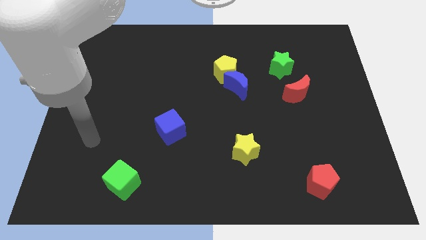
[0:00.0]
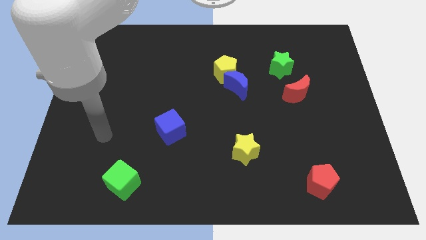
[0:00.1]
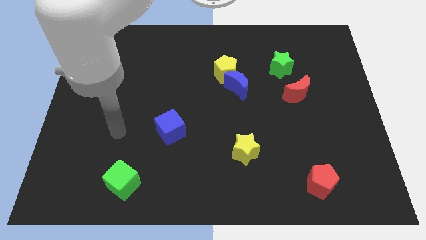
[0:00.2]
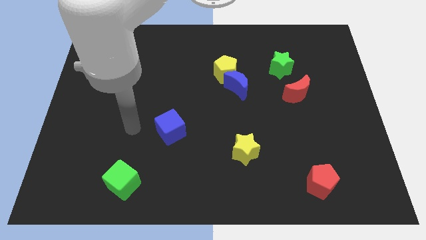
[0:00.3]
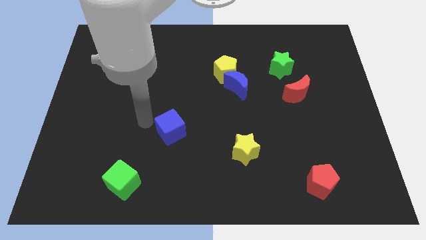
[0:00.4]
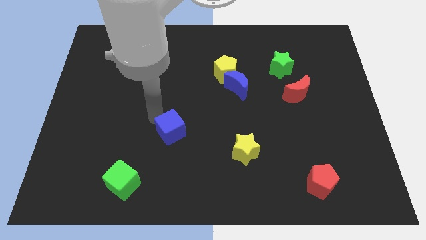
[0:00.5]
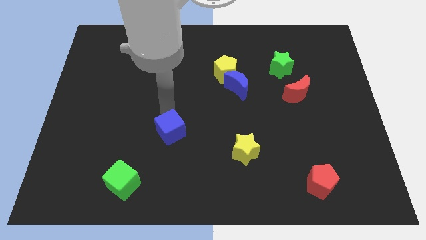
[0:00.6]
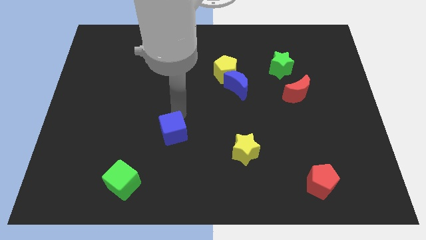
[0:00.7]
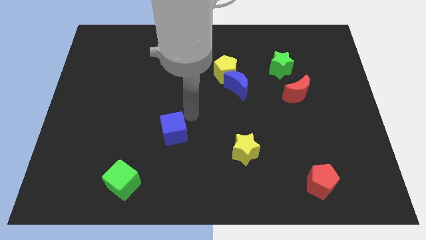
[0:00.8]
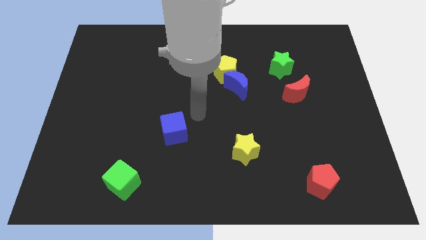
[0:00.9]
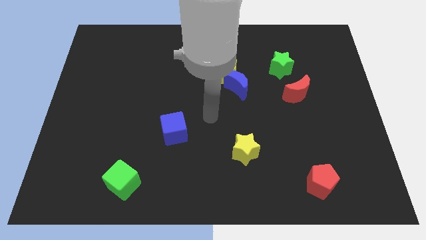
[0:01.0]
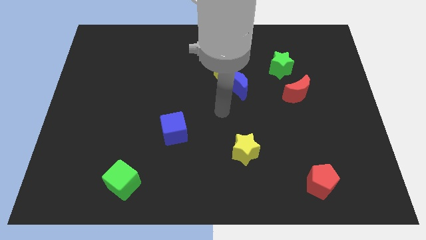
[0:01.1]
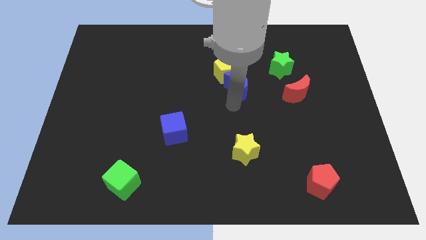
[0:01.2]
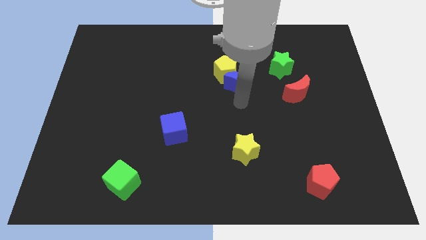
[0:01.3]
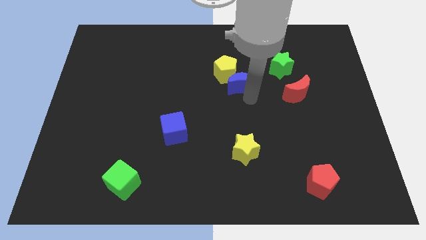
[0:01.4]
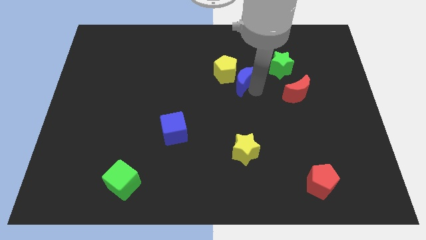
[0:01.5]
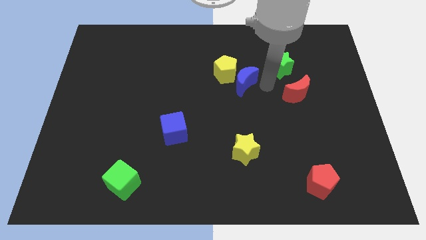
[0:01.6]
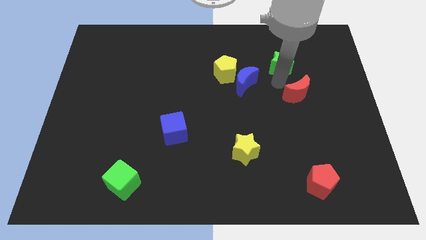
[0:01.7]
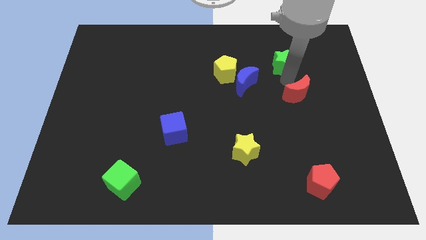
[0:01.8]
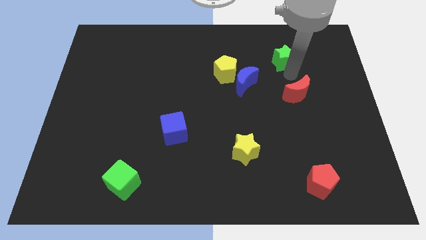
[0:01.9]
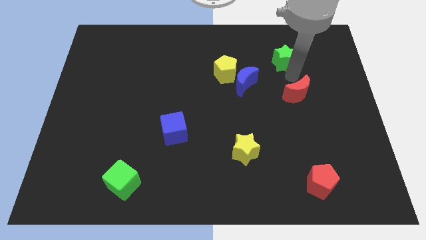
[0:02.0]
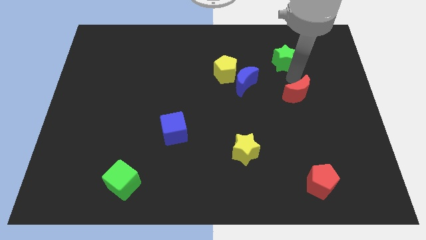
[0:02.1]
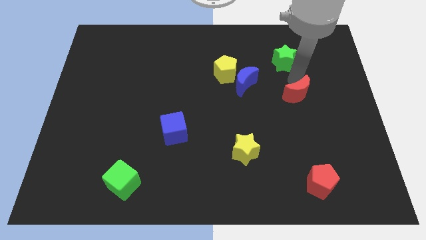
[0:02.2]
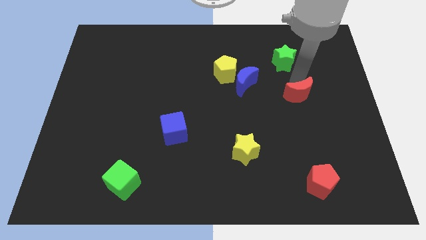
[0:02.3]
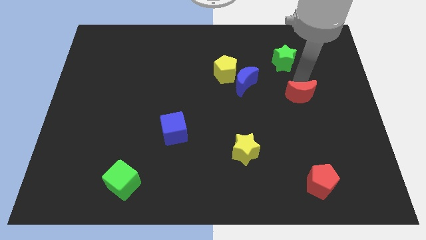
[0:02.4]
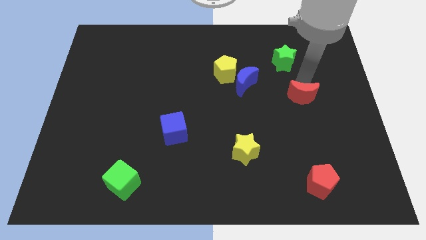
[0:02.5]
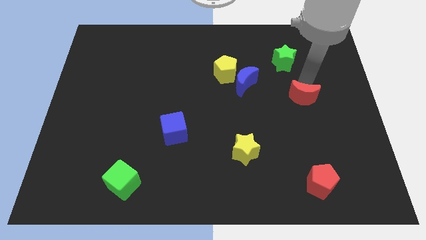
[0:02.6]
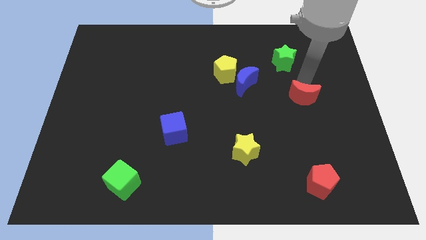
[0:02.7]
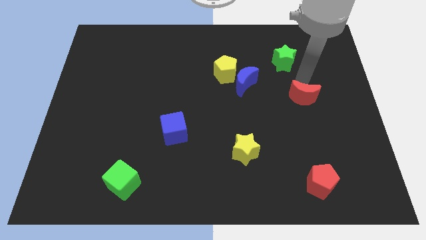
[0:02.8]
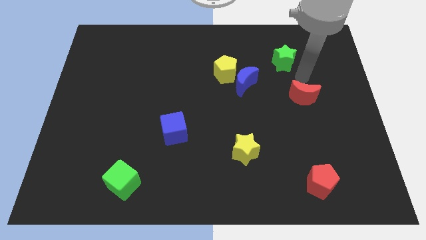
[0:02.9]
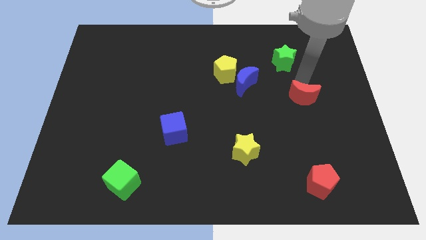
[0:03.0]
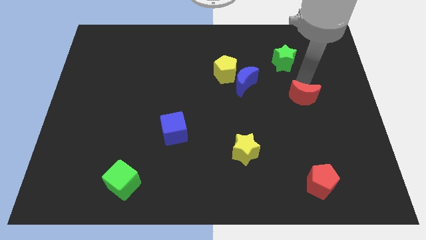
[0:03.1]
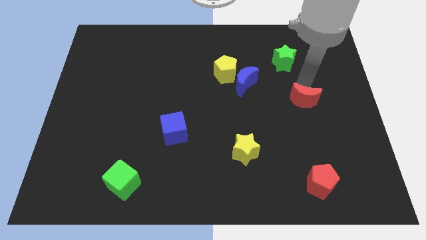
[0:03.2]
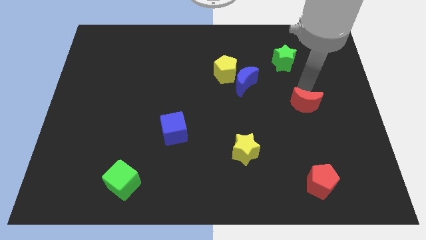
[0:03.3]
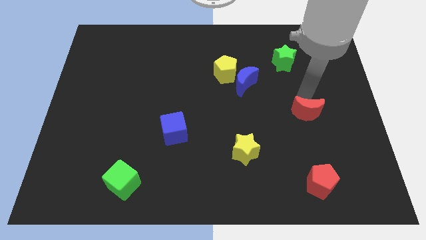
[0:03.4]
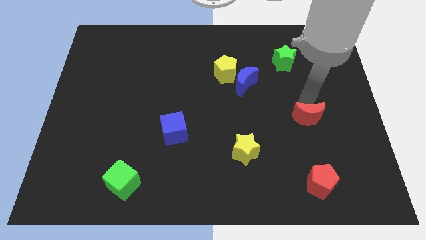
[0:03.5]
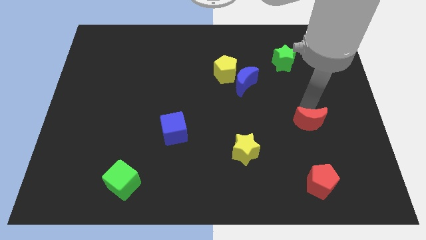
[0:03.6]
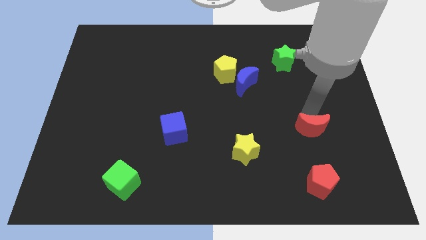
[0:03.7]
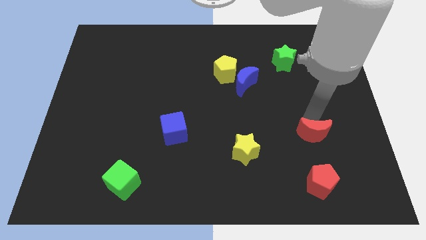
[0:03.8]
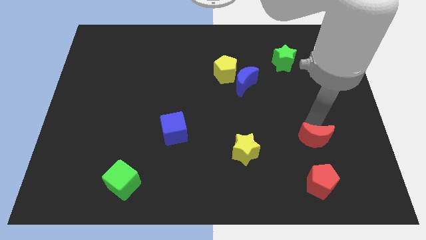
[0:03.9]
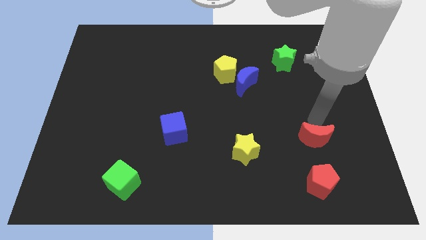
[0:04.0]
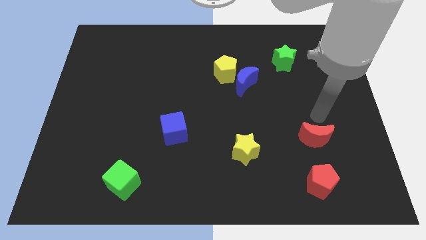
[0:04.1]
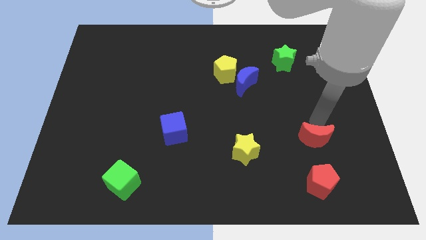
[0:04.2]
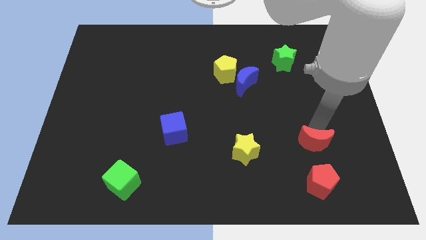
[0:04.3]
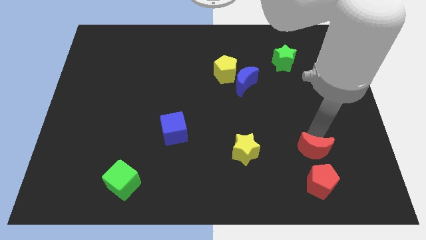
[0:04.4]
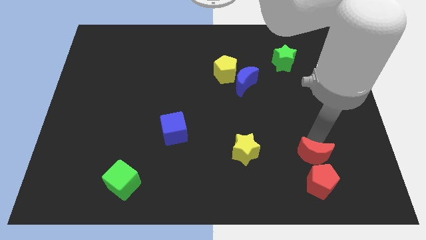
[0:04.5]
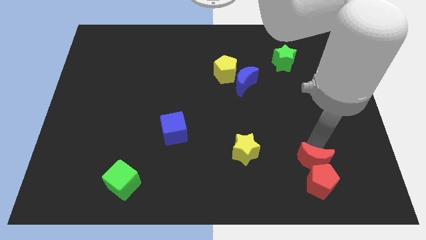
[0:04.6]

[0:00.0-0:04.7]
slide the red moon close to the red pentagon

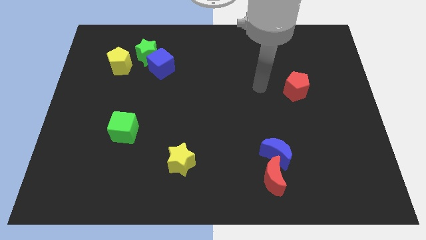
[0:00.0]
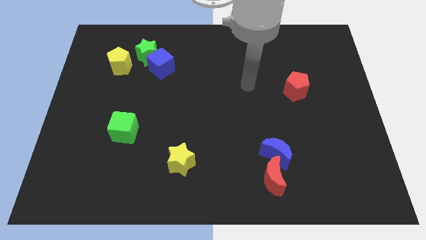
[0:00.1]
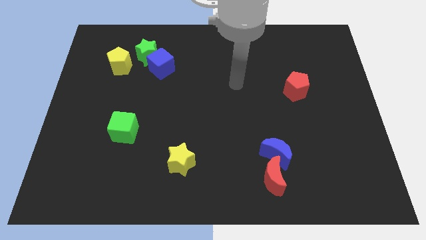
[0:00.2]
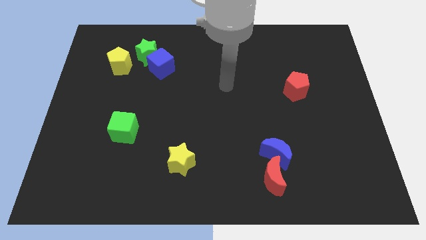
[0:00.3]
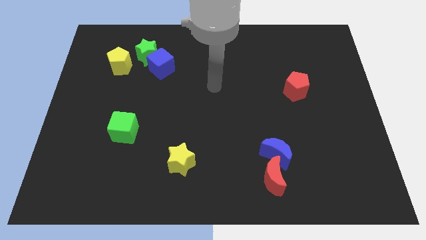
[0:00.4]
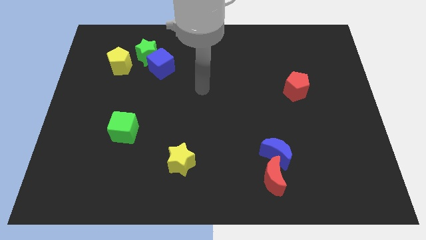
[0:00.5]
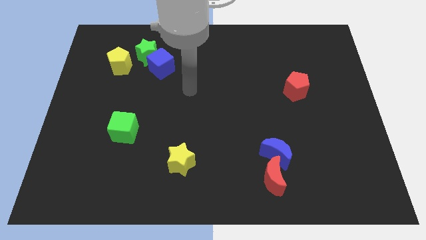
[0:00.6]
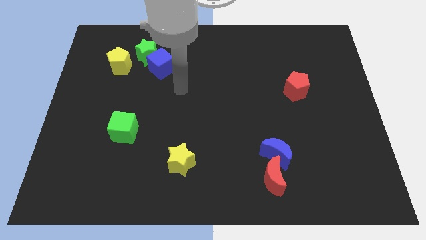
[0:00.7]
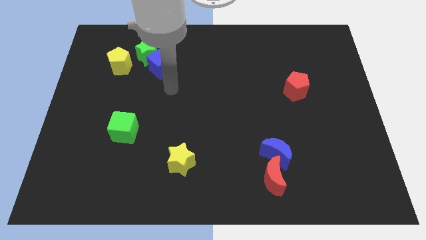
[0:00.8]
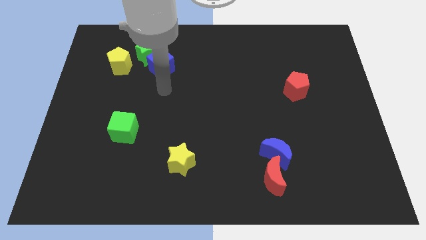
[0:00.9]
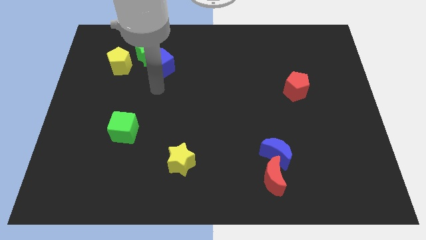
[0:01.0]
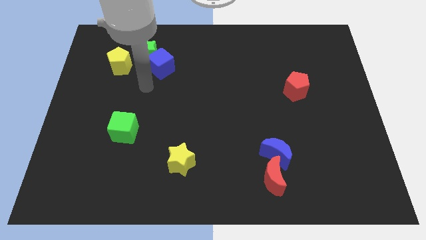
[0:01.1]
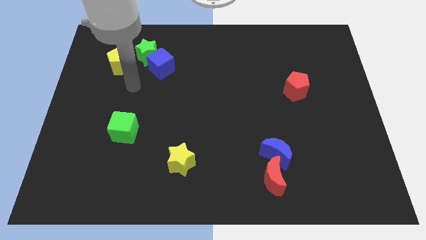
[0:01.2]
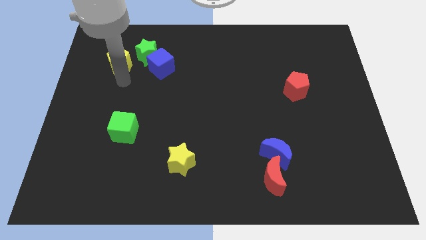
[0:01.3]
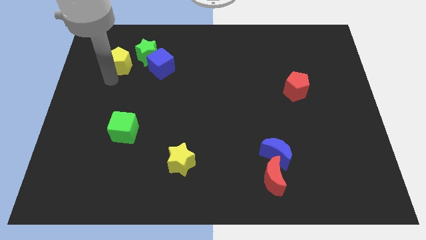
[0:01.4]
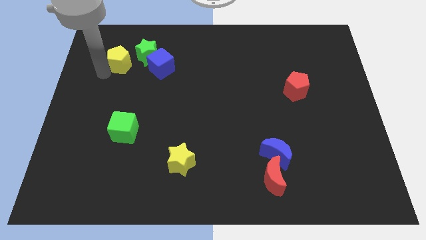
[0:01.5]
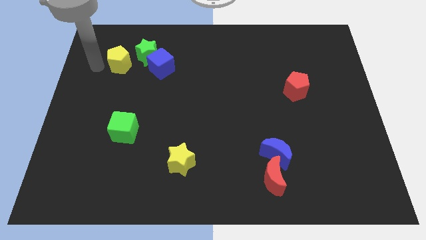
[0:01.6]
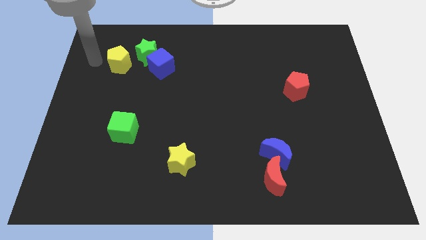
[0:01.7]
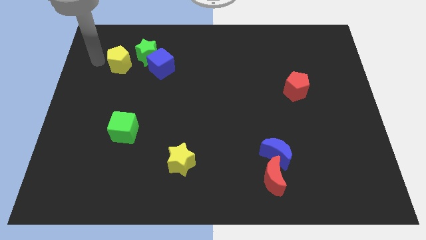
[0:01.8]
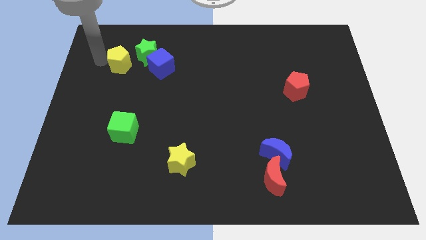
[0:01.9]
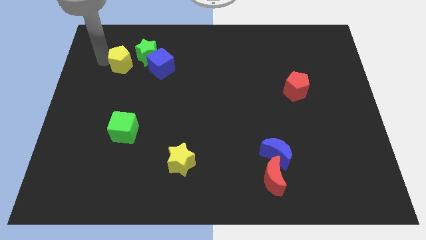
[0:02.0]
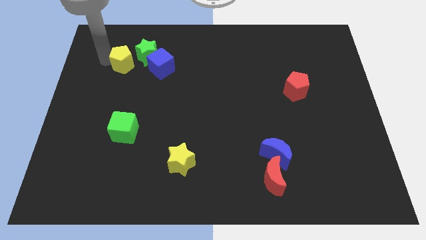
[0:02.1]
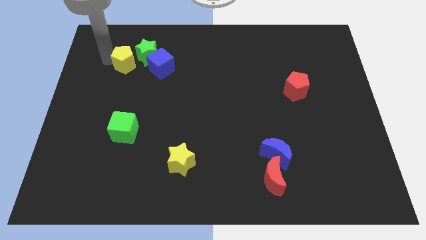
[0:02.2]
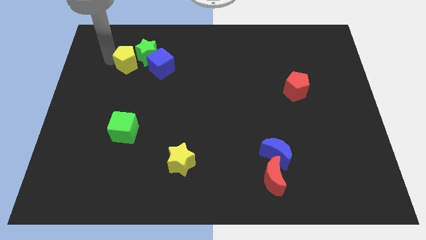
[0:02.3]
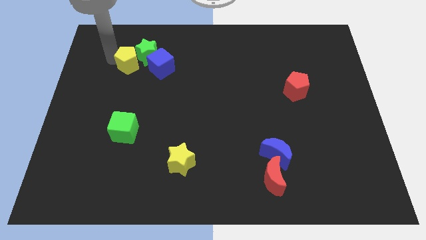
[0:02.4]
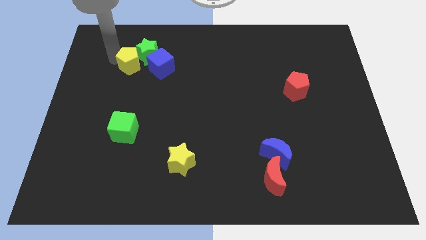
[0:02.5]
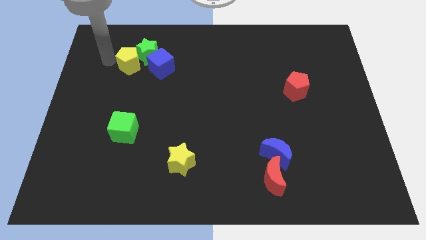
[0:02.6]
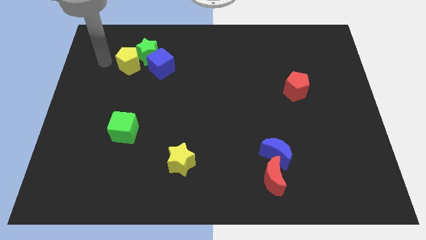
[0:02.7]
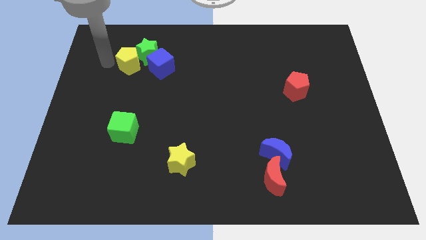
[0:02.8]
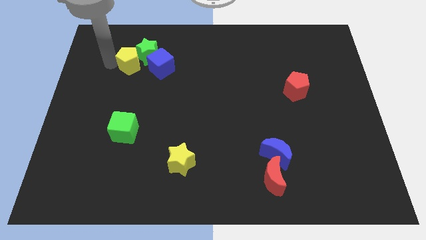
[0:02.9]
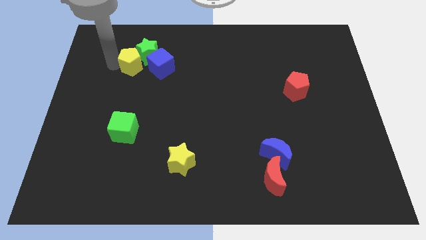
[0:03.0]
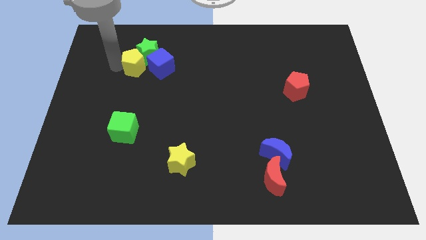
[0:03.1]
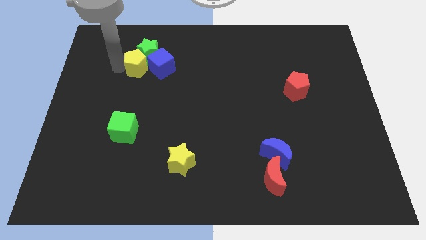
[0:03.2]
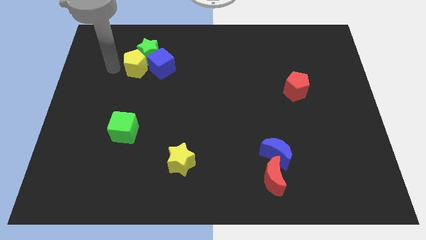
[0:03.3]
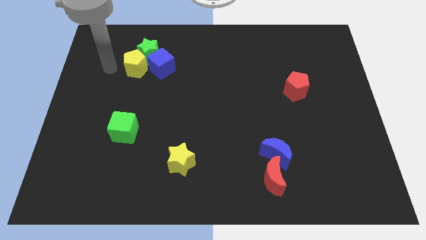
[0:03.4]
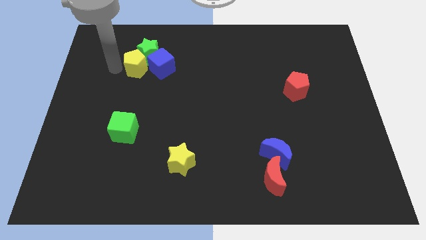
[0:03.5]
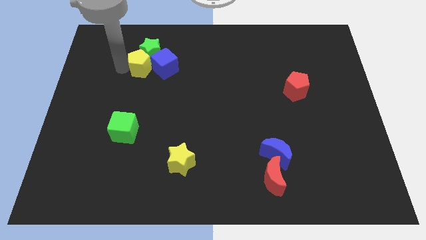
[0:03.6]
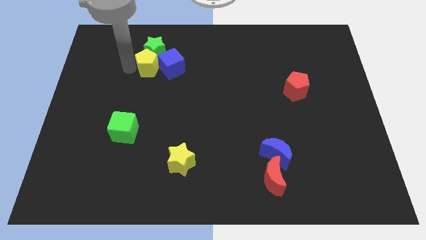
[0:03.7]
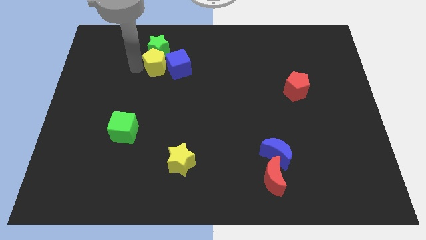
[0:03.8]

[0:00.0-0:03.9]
put the yellow pentagon next to the blue cube
